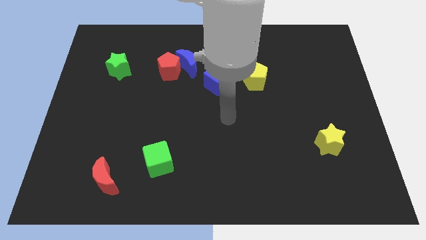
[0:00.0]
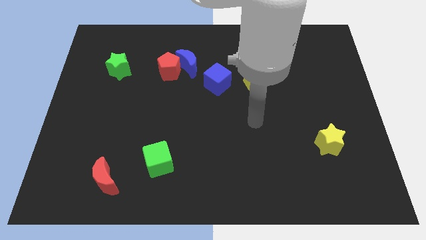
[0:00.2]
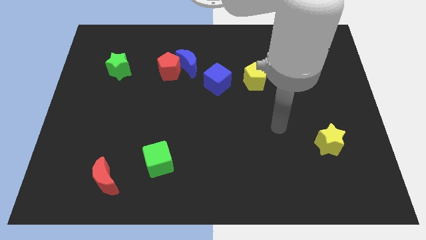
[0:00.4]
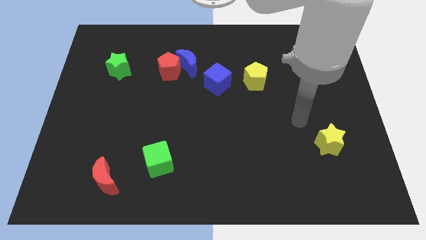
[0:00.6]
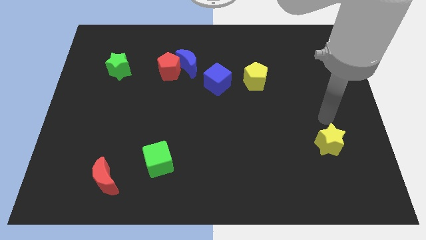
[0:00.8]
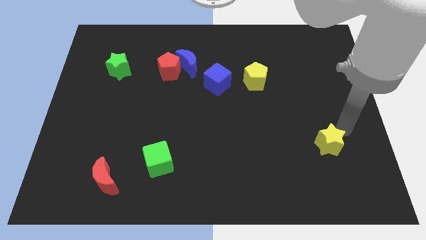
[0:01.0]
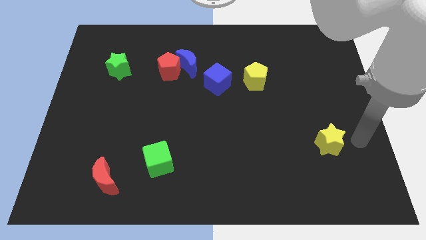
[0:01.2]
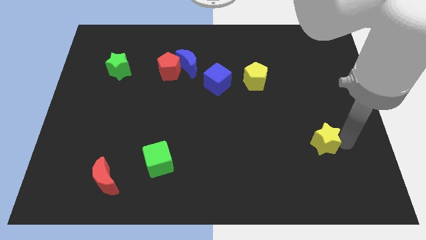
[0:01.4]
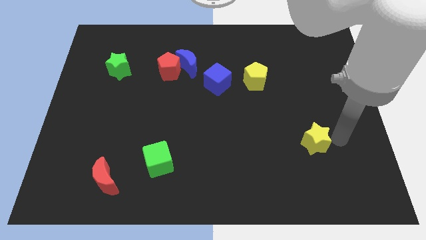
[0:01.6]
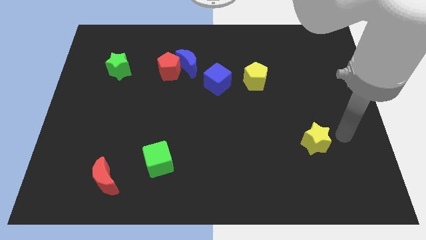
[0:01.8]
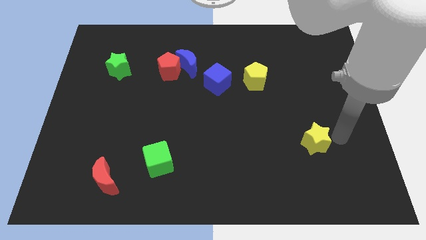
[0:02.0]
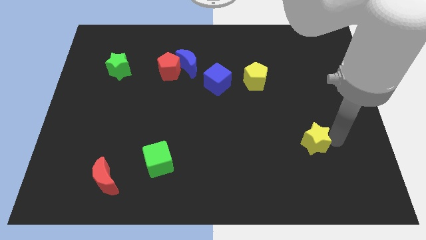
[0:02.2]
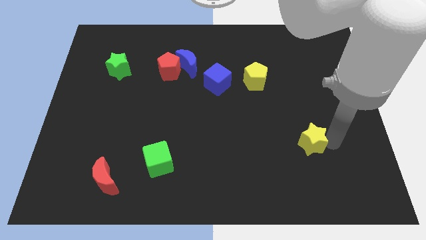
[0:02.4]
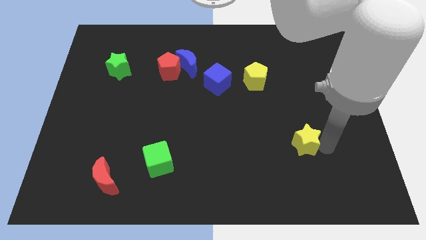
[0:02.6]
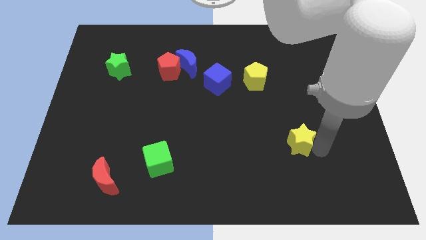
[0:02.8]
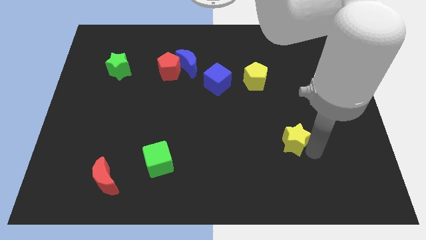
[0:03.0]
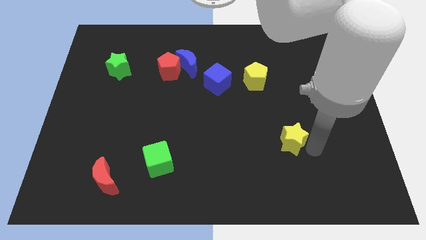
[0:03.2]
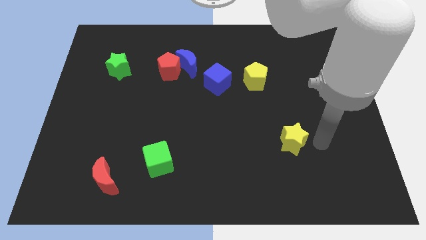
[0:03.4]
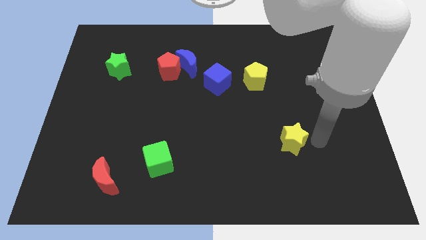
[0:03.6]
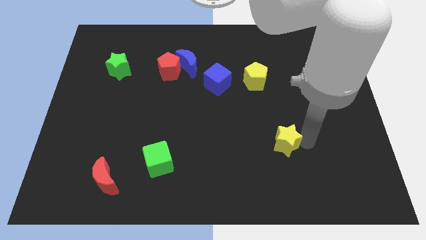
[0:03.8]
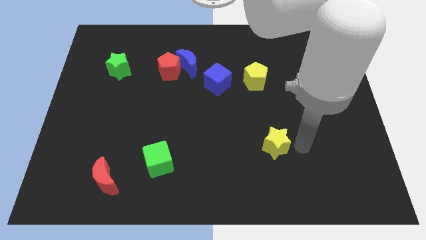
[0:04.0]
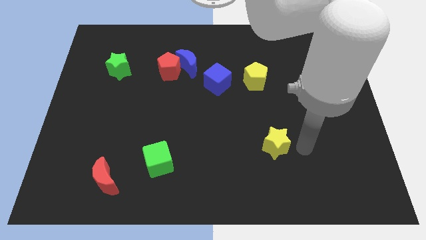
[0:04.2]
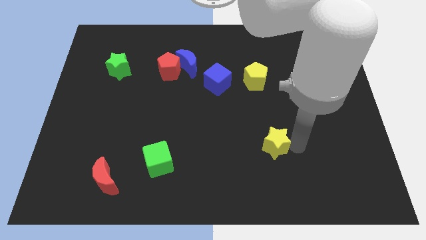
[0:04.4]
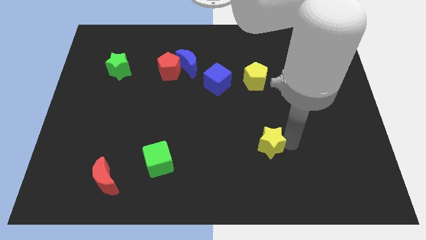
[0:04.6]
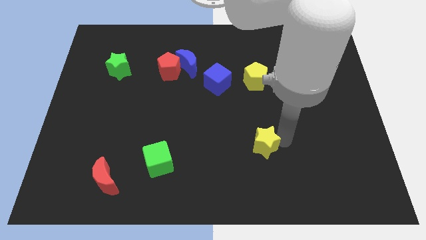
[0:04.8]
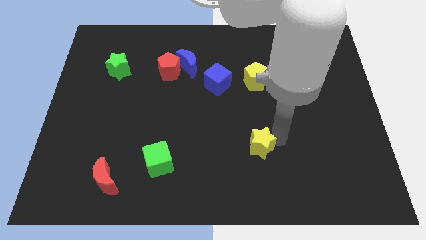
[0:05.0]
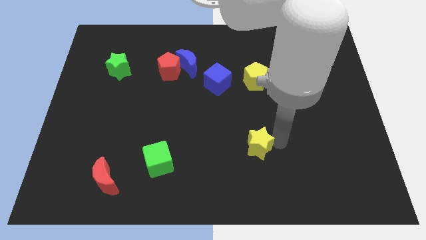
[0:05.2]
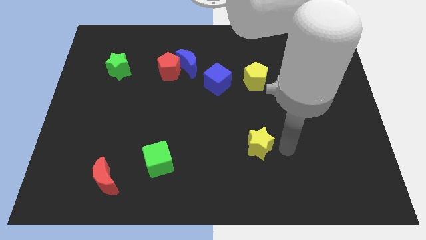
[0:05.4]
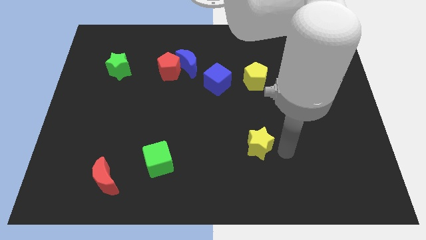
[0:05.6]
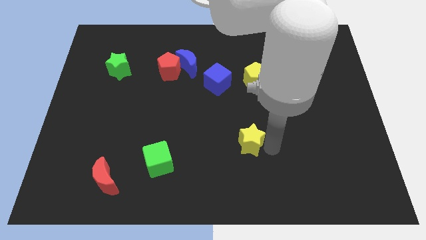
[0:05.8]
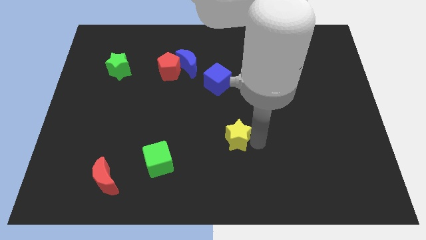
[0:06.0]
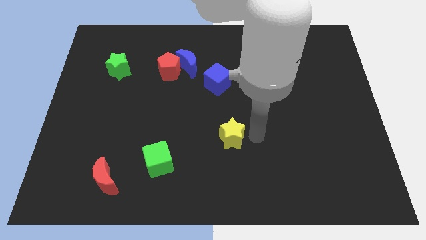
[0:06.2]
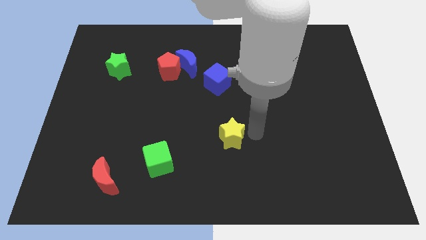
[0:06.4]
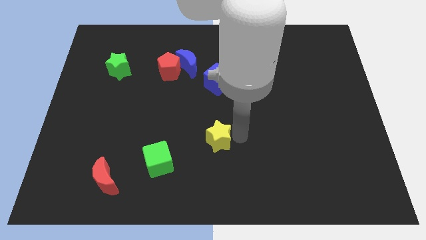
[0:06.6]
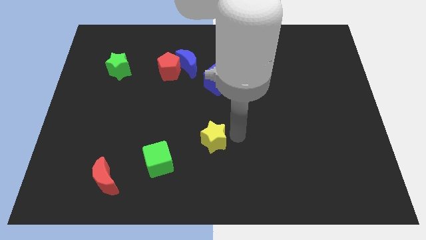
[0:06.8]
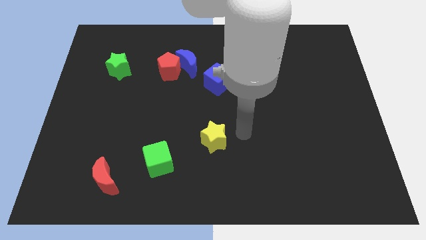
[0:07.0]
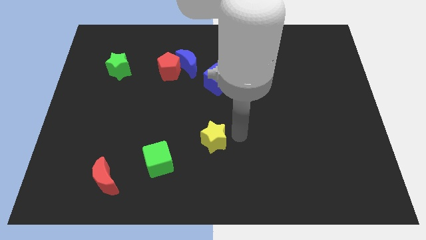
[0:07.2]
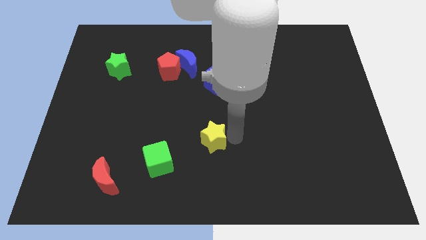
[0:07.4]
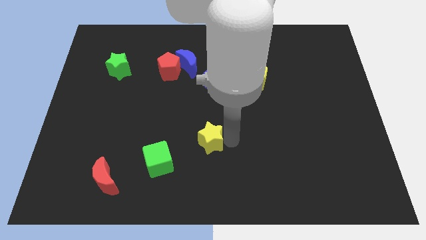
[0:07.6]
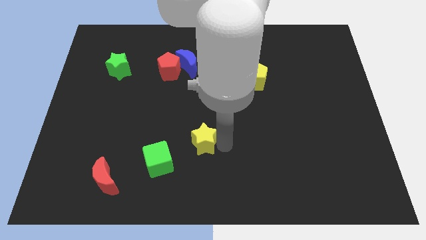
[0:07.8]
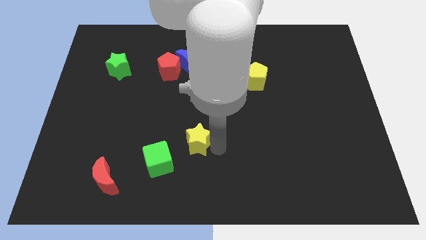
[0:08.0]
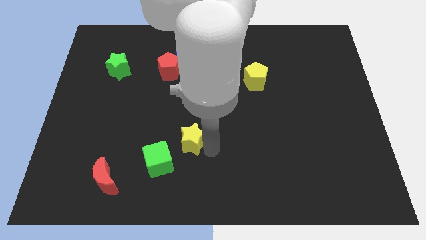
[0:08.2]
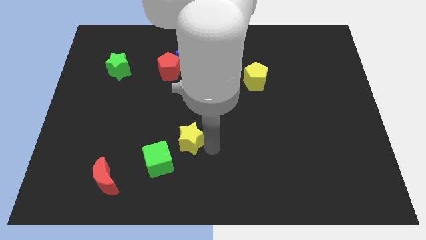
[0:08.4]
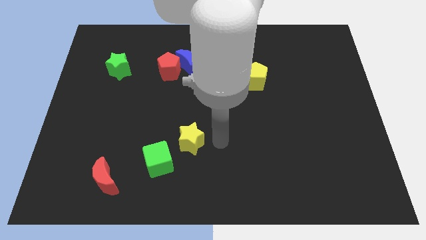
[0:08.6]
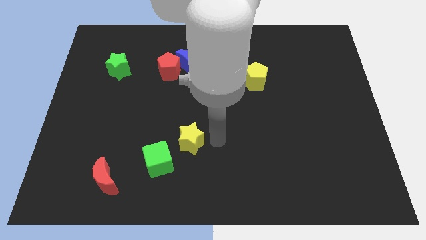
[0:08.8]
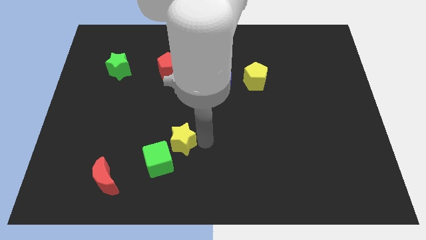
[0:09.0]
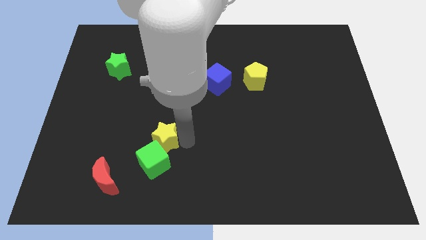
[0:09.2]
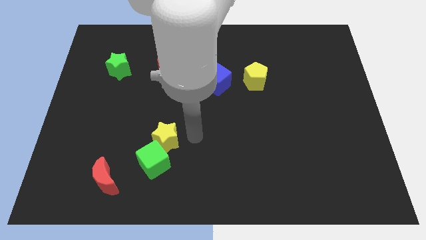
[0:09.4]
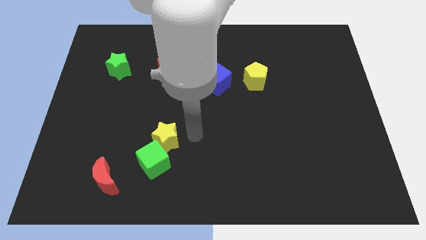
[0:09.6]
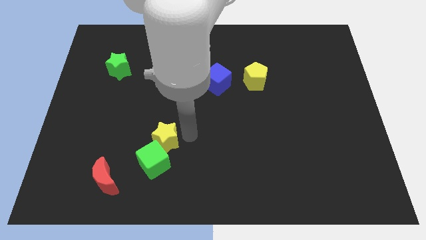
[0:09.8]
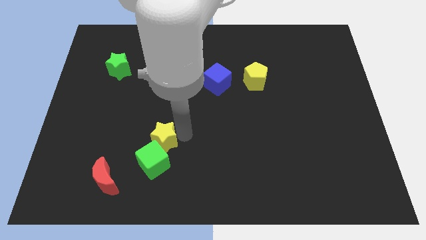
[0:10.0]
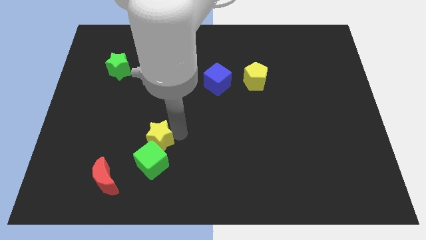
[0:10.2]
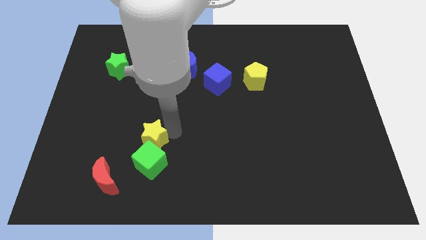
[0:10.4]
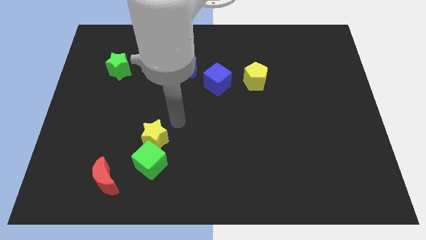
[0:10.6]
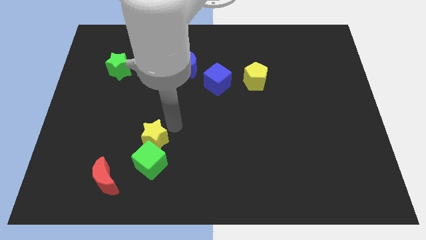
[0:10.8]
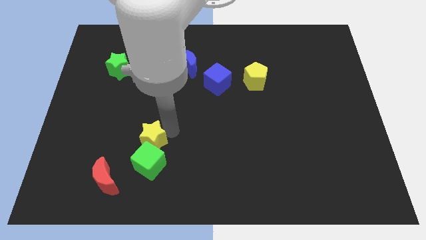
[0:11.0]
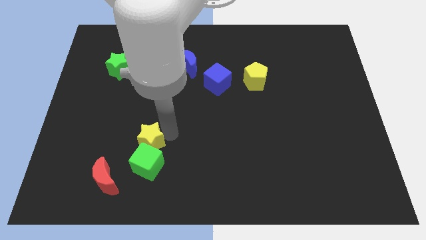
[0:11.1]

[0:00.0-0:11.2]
slide the yellow star to the top right side of the red moon

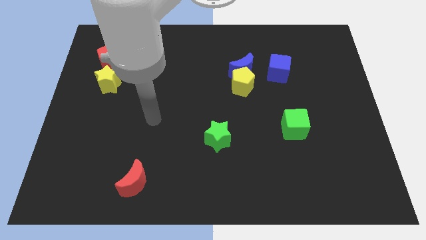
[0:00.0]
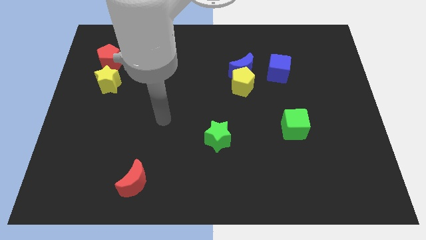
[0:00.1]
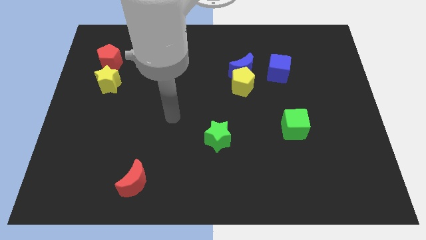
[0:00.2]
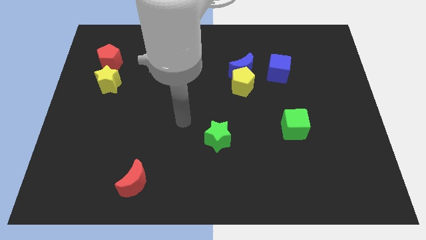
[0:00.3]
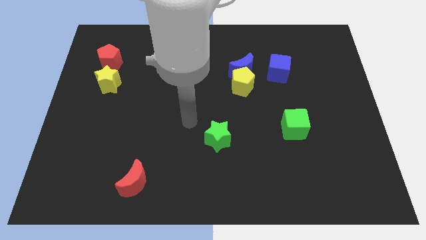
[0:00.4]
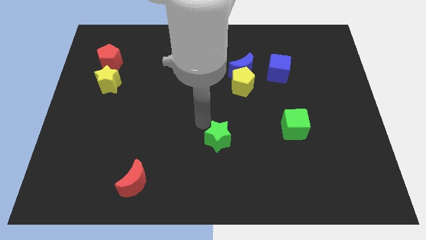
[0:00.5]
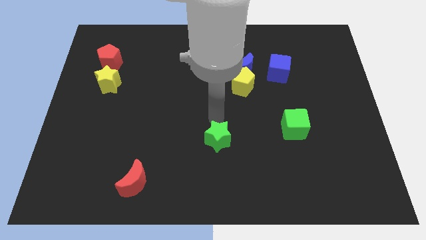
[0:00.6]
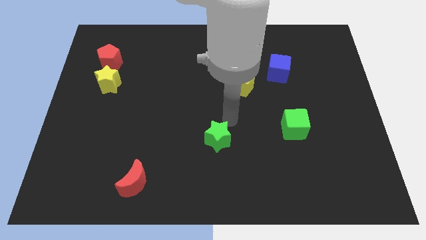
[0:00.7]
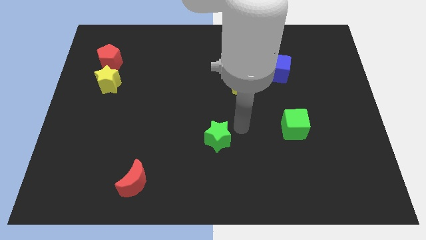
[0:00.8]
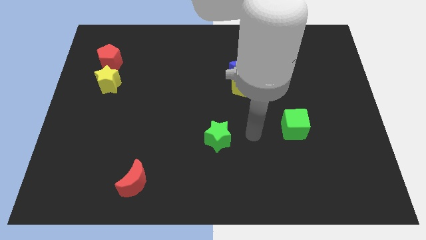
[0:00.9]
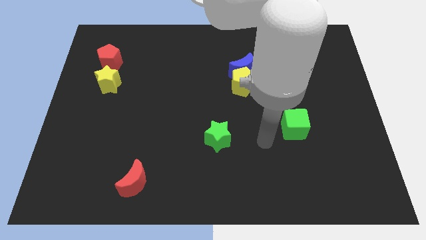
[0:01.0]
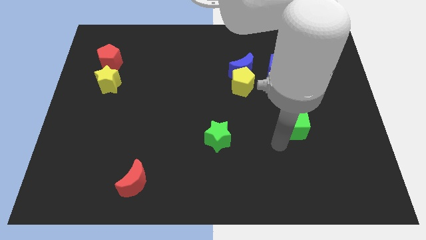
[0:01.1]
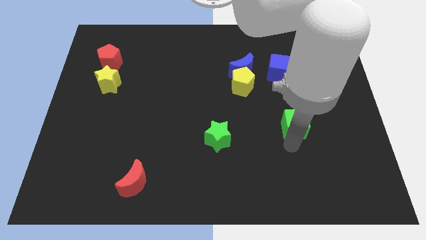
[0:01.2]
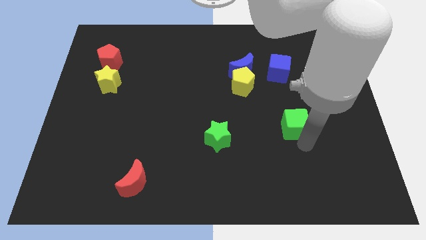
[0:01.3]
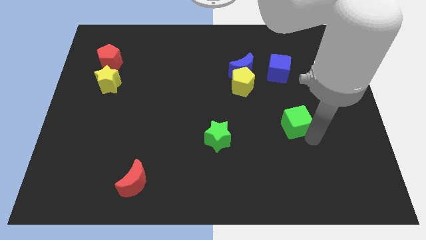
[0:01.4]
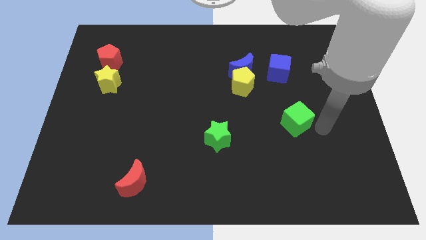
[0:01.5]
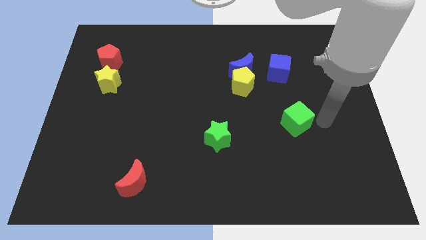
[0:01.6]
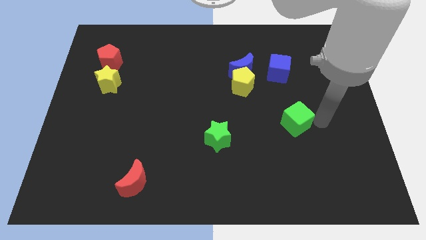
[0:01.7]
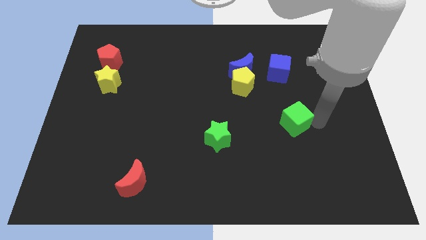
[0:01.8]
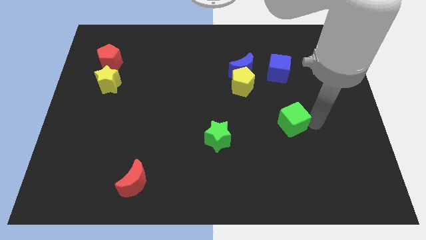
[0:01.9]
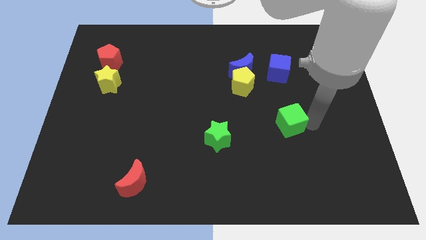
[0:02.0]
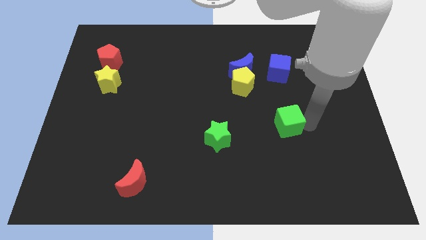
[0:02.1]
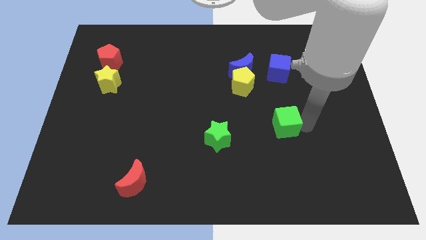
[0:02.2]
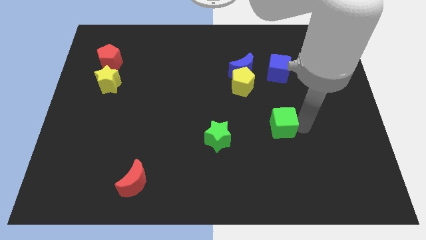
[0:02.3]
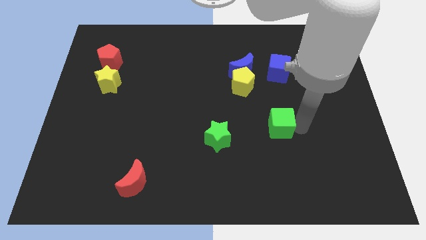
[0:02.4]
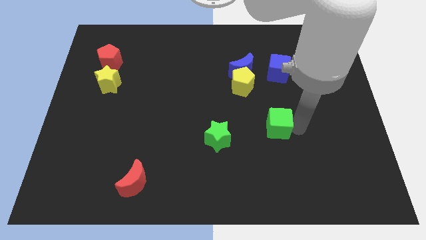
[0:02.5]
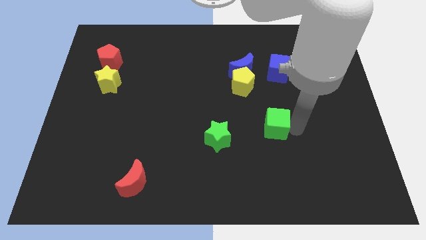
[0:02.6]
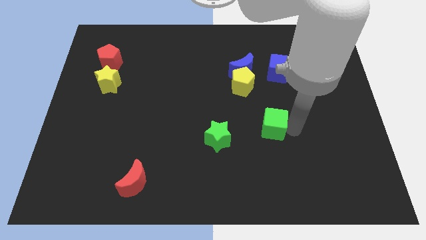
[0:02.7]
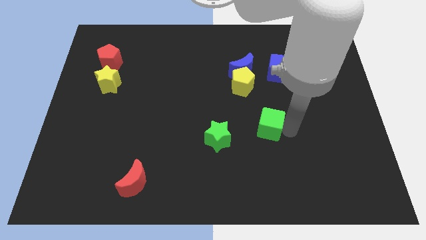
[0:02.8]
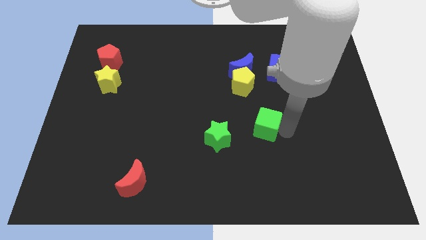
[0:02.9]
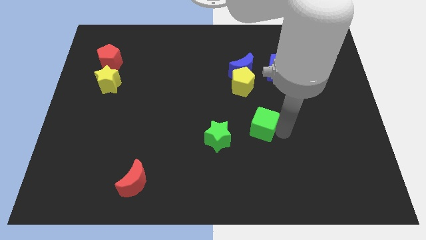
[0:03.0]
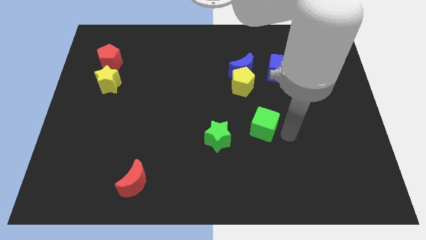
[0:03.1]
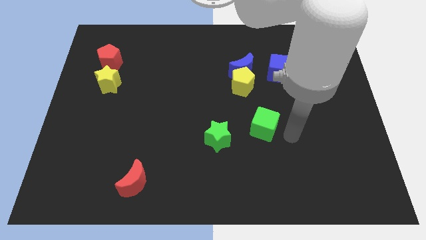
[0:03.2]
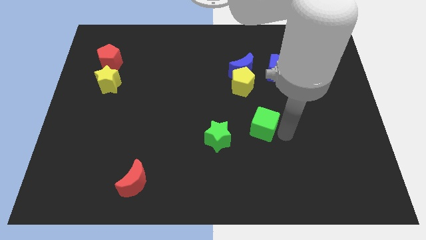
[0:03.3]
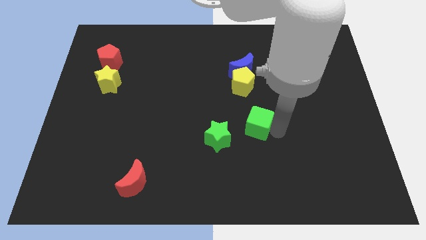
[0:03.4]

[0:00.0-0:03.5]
move the green cube to the top right side of the green star
